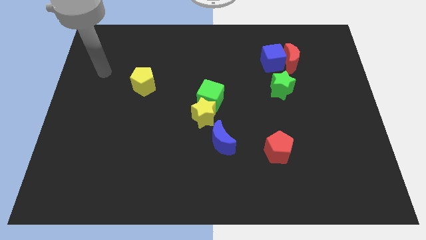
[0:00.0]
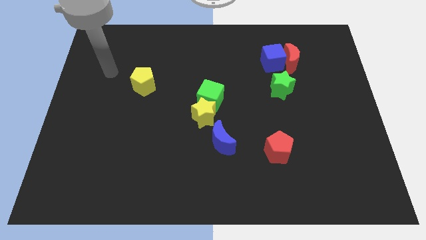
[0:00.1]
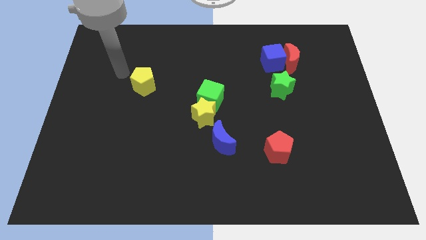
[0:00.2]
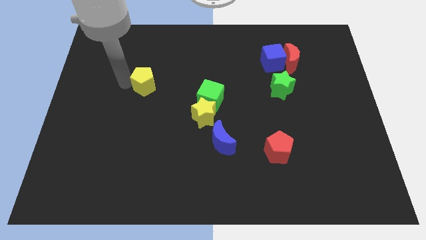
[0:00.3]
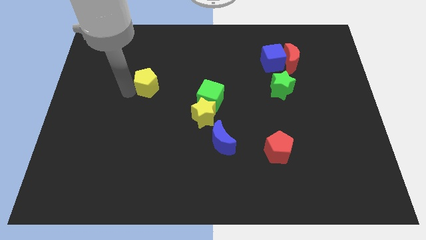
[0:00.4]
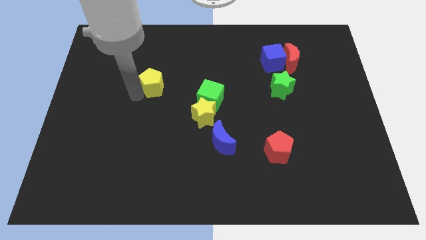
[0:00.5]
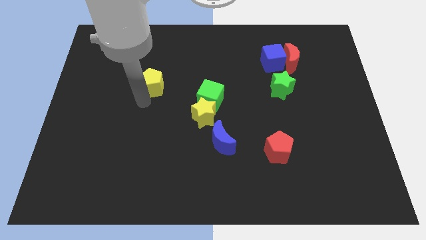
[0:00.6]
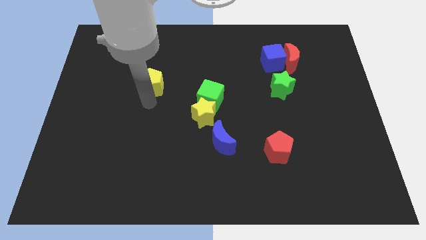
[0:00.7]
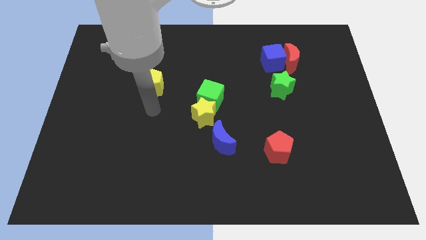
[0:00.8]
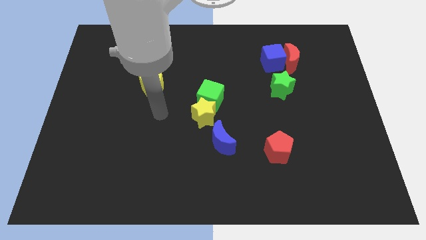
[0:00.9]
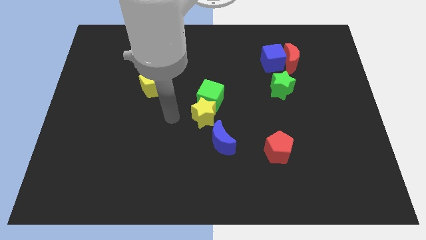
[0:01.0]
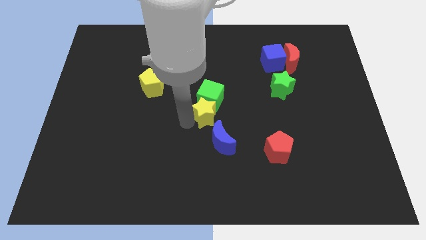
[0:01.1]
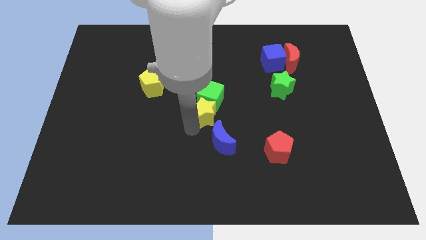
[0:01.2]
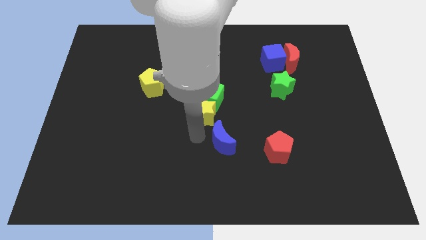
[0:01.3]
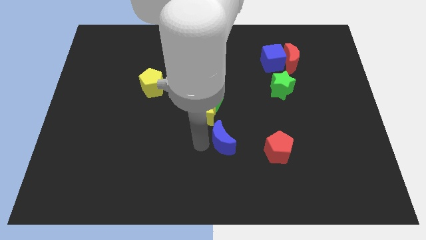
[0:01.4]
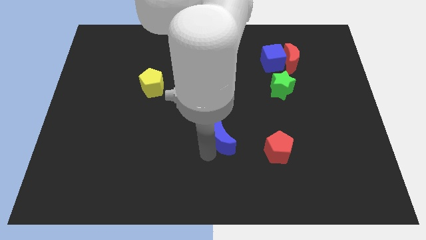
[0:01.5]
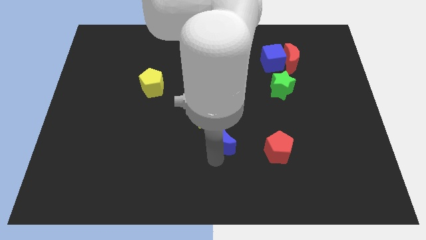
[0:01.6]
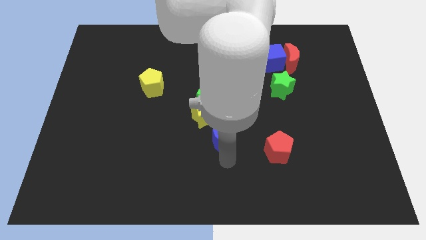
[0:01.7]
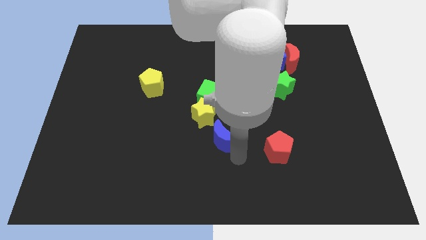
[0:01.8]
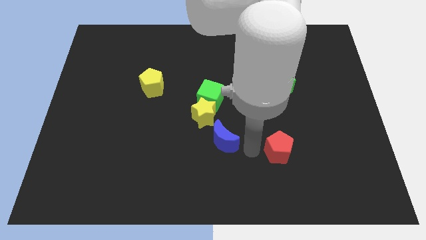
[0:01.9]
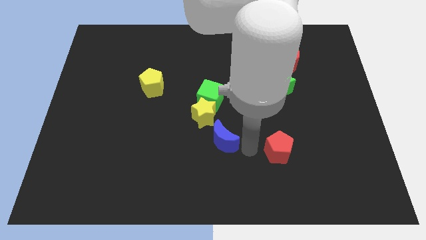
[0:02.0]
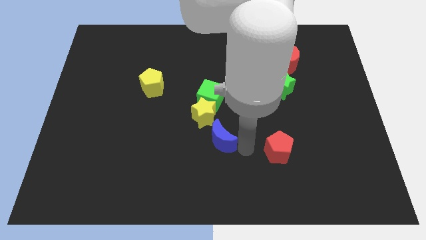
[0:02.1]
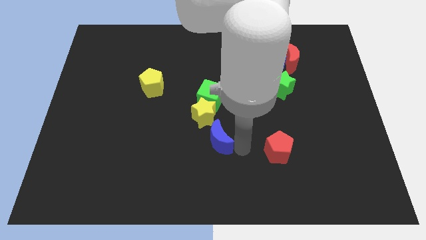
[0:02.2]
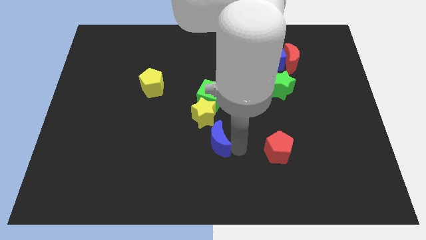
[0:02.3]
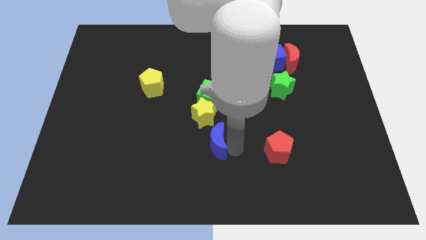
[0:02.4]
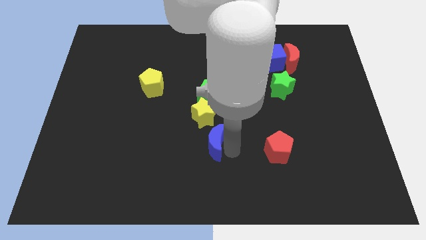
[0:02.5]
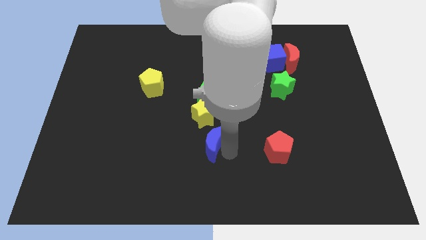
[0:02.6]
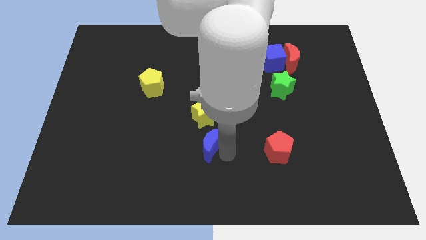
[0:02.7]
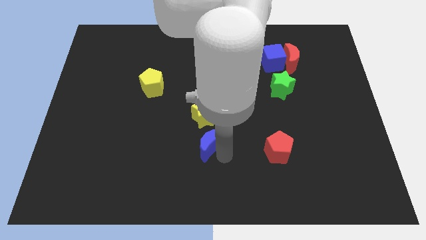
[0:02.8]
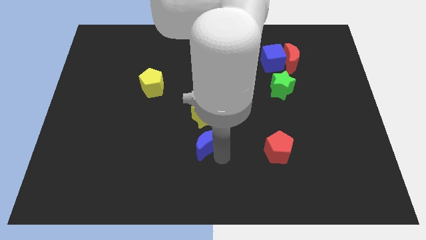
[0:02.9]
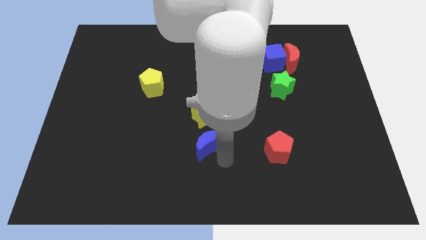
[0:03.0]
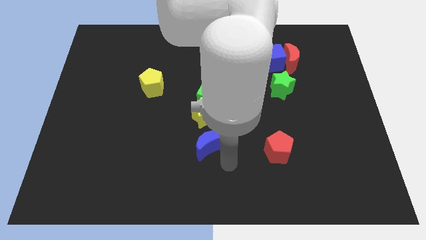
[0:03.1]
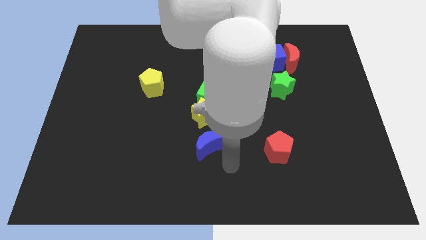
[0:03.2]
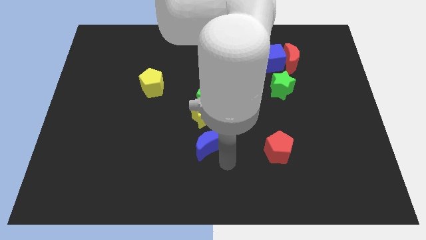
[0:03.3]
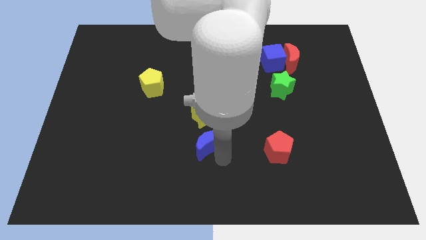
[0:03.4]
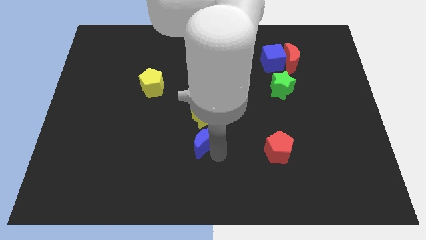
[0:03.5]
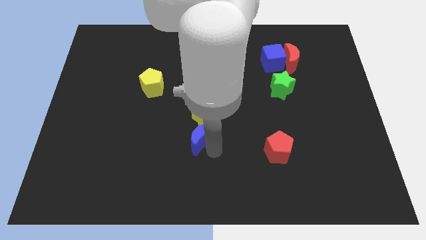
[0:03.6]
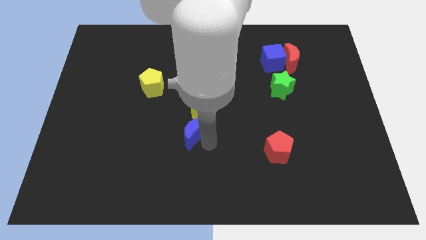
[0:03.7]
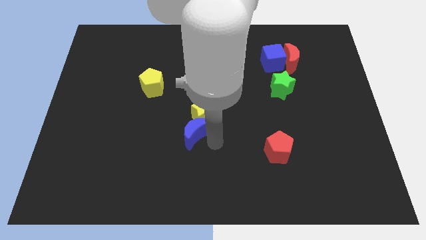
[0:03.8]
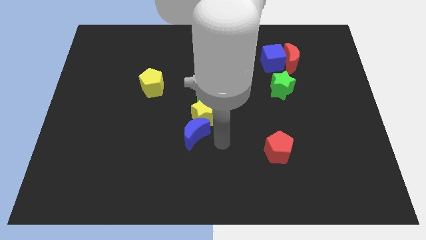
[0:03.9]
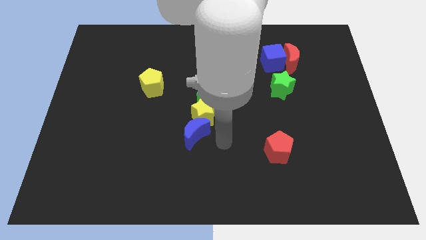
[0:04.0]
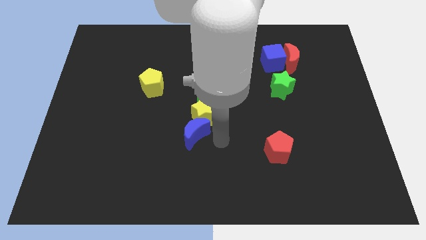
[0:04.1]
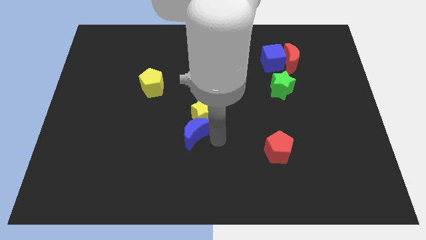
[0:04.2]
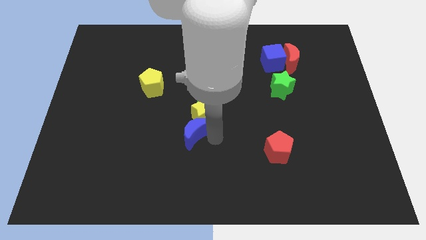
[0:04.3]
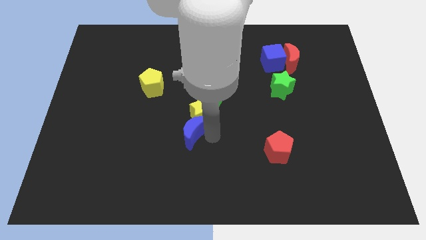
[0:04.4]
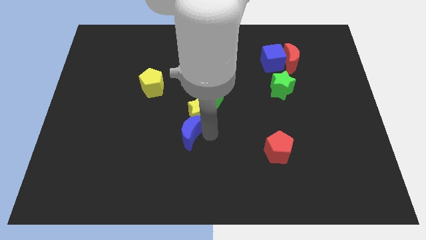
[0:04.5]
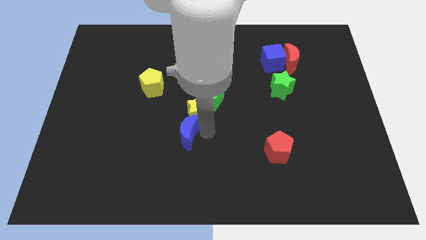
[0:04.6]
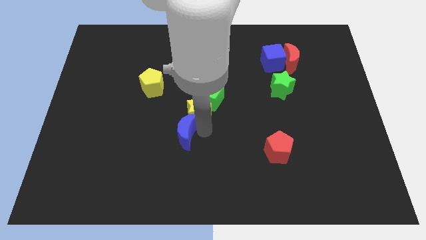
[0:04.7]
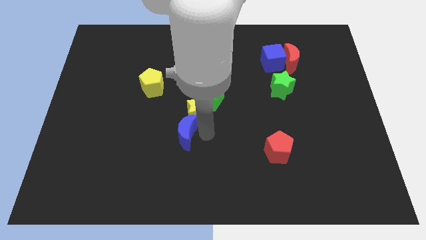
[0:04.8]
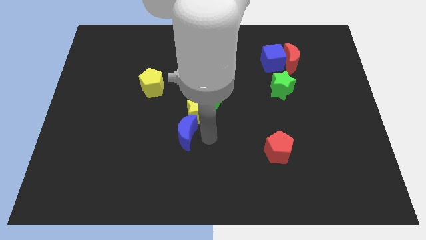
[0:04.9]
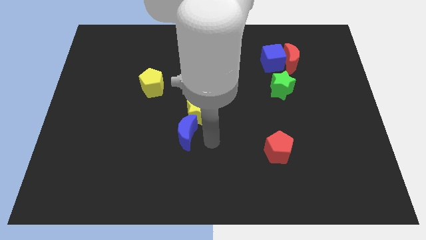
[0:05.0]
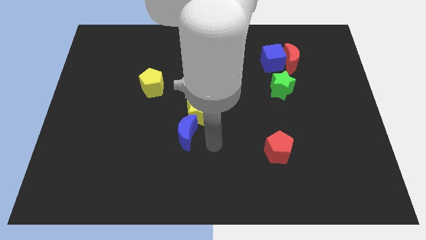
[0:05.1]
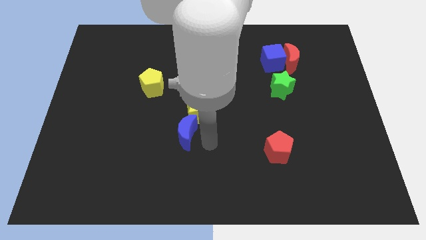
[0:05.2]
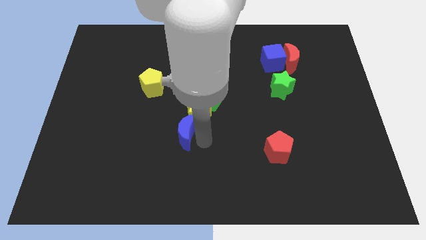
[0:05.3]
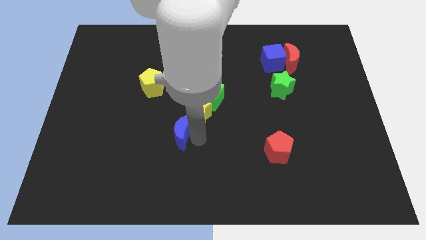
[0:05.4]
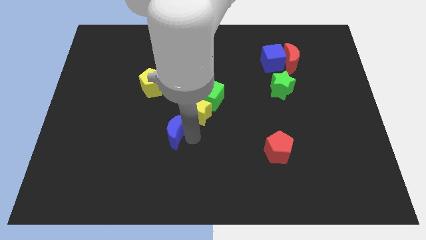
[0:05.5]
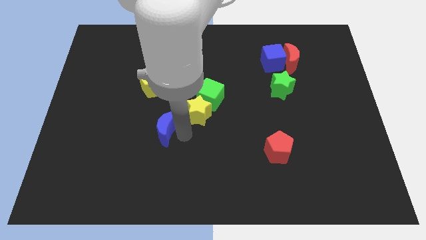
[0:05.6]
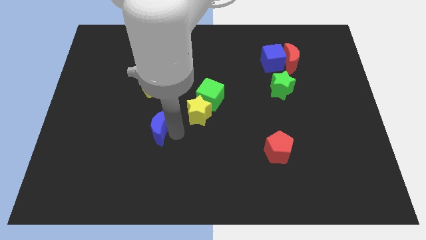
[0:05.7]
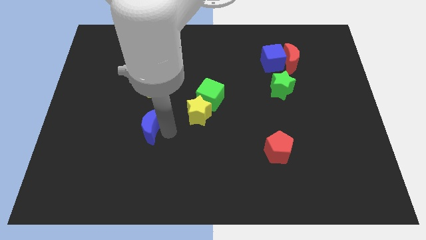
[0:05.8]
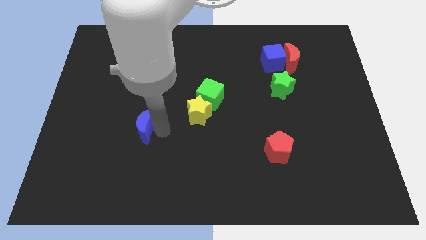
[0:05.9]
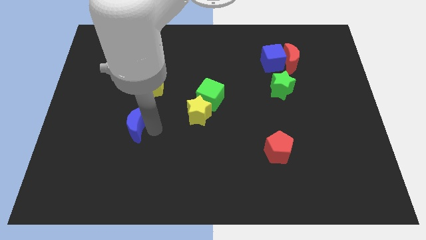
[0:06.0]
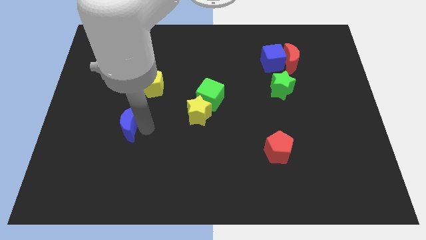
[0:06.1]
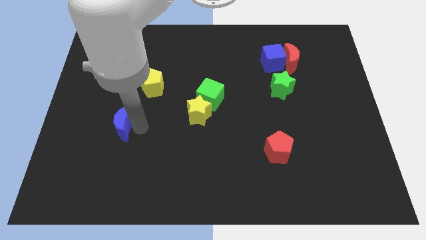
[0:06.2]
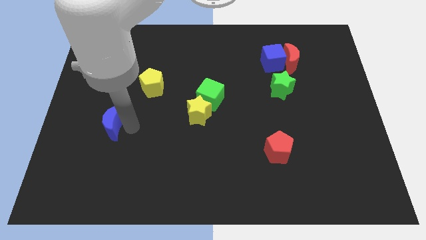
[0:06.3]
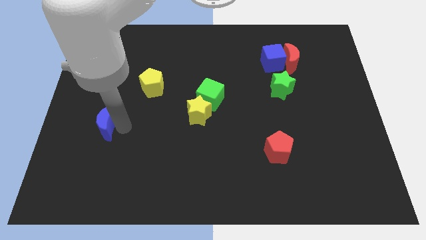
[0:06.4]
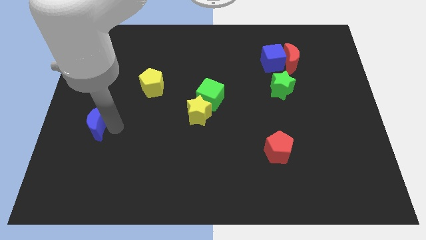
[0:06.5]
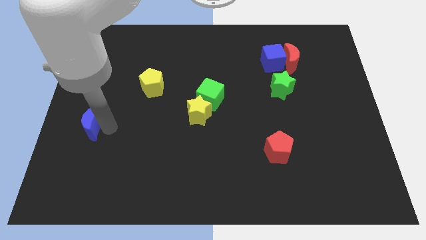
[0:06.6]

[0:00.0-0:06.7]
move the blue moon to the left side of the board
